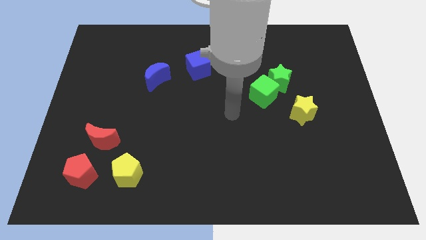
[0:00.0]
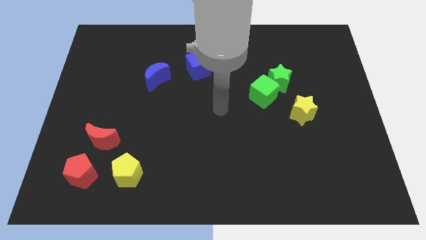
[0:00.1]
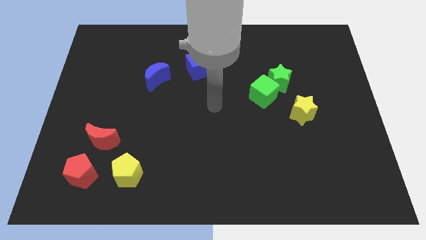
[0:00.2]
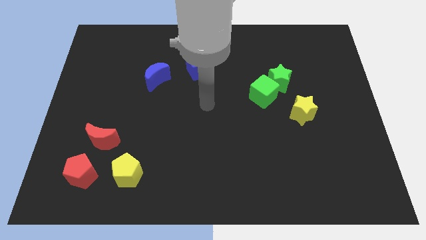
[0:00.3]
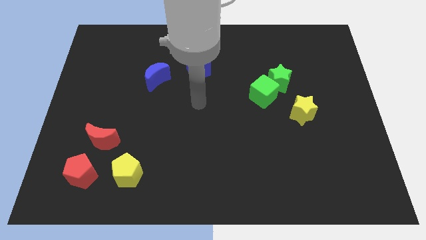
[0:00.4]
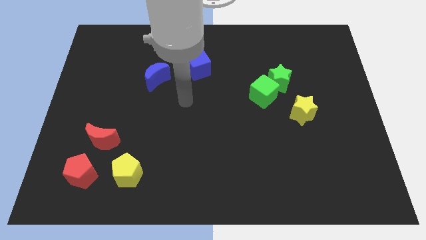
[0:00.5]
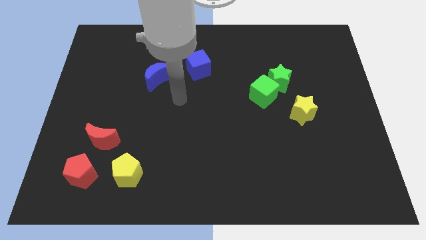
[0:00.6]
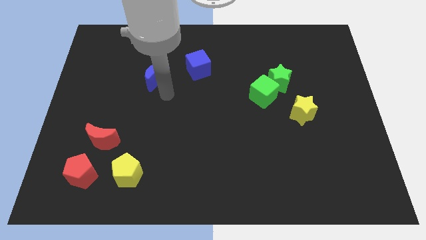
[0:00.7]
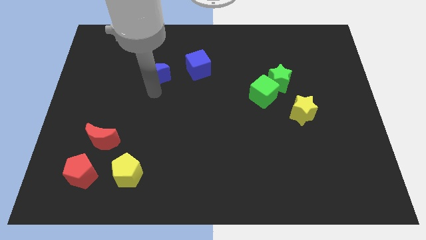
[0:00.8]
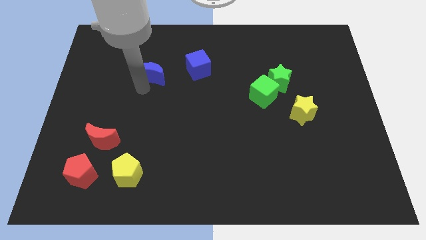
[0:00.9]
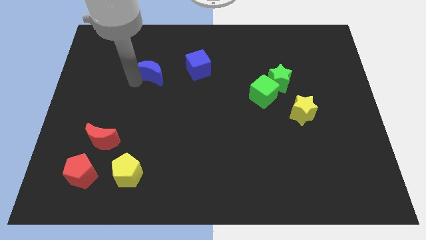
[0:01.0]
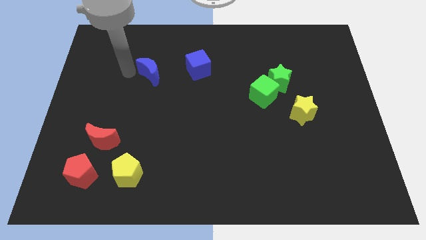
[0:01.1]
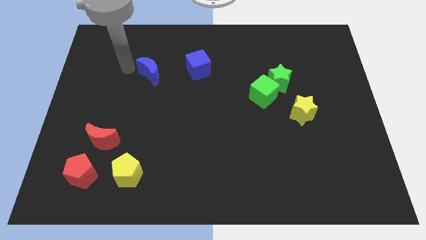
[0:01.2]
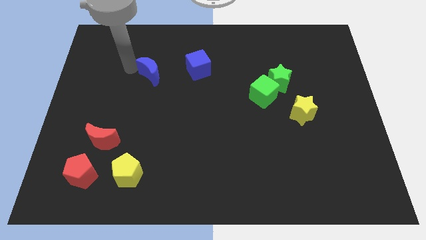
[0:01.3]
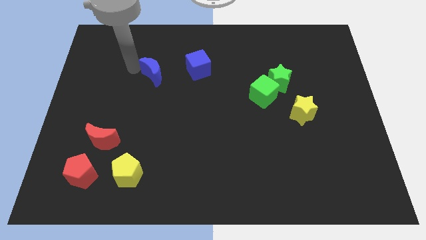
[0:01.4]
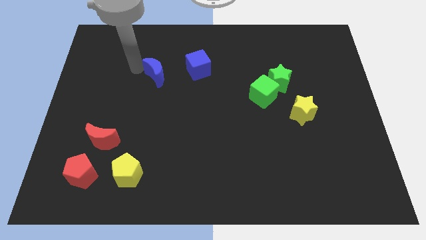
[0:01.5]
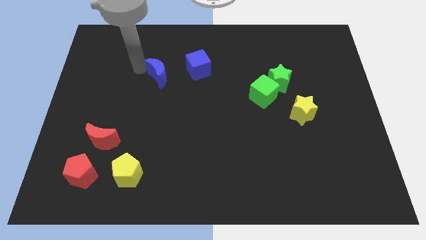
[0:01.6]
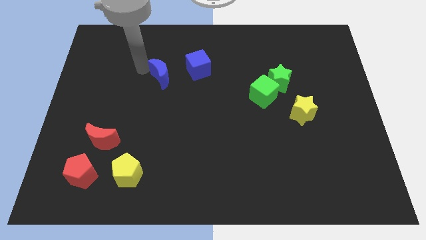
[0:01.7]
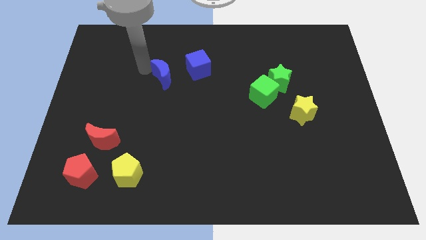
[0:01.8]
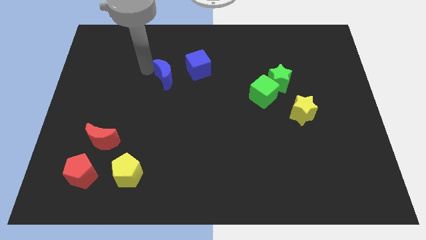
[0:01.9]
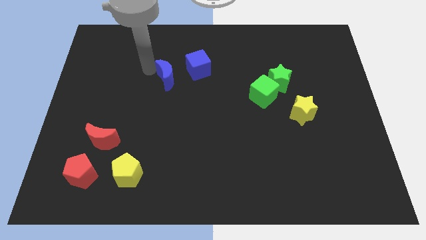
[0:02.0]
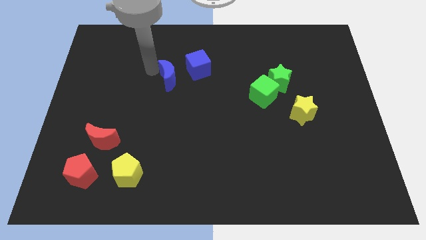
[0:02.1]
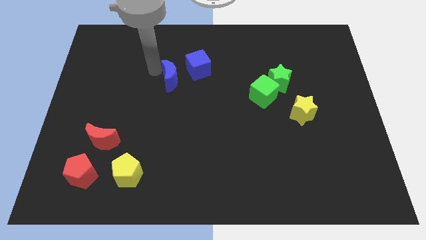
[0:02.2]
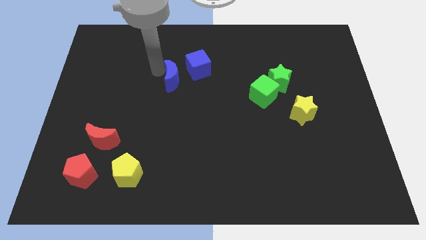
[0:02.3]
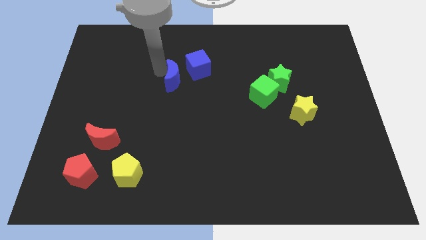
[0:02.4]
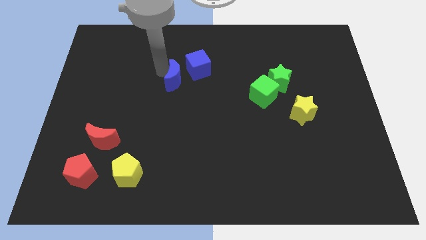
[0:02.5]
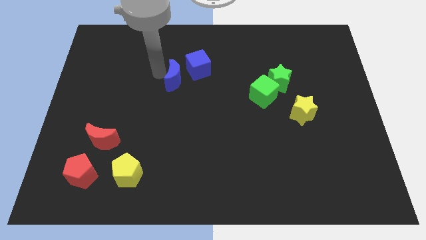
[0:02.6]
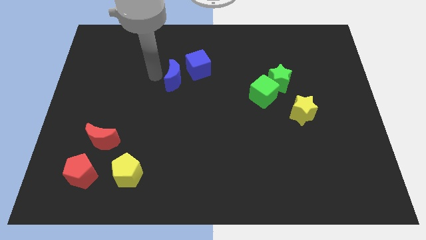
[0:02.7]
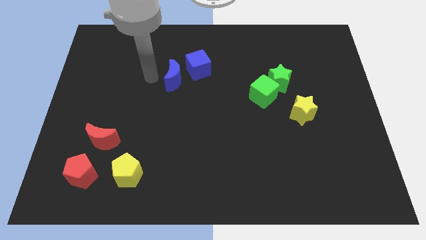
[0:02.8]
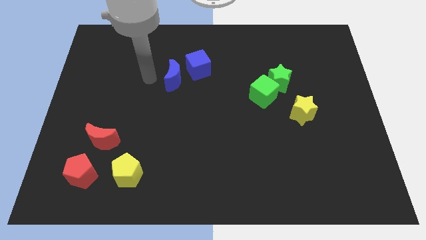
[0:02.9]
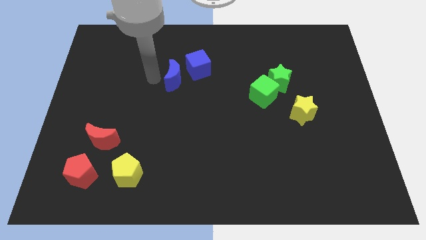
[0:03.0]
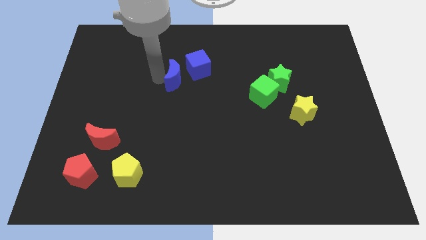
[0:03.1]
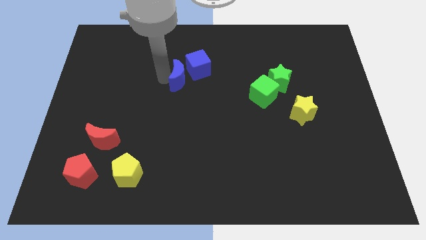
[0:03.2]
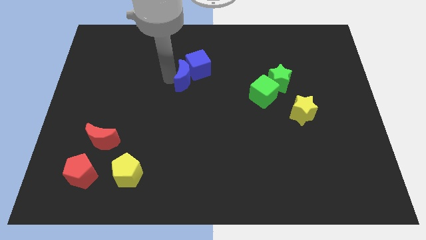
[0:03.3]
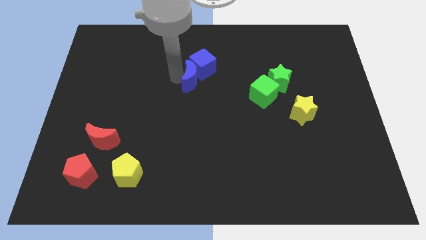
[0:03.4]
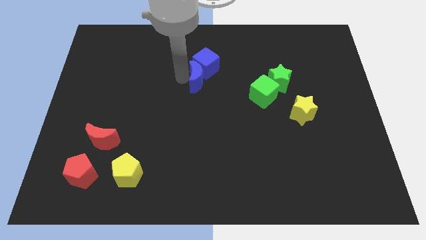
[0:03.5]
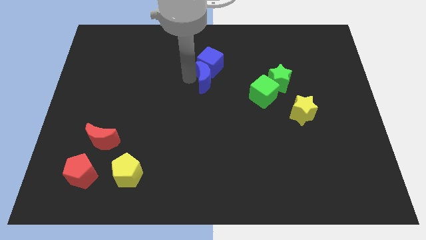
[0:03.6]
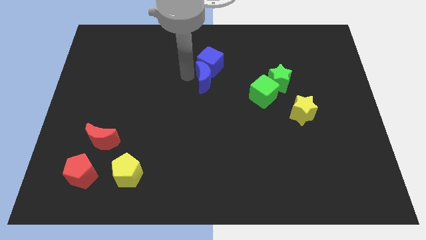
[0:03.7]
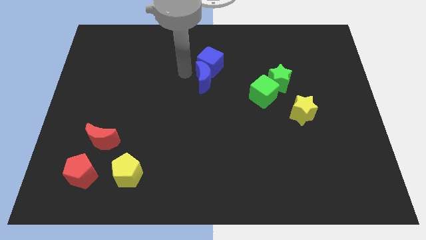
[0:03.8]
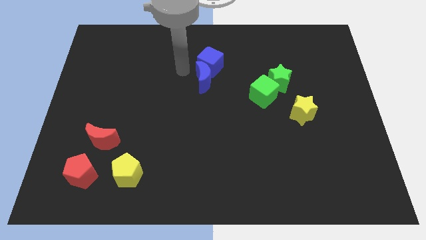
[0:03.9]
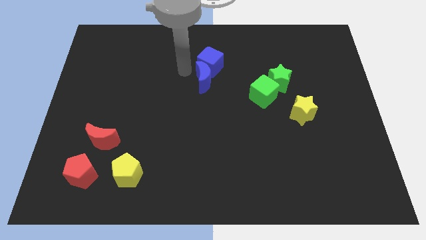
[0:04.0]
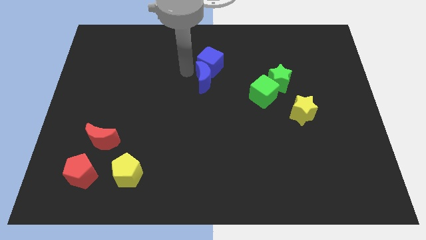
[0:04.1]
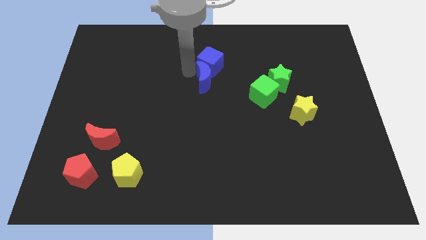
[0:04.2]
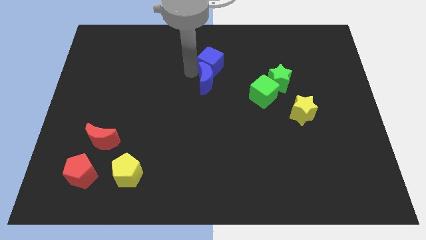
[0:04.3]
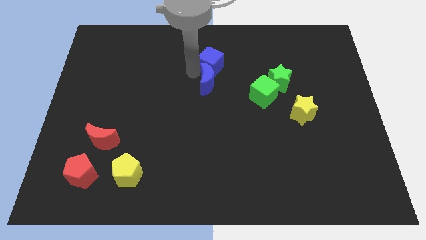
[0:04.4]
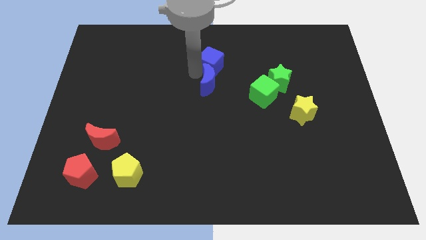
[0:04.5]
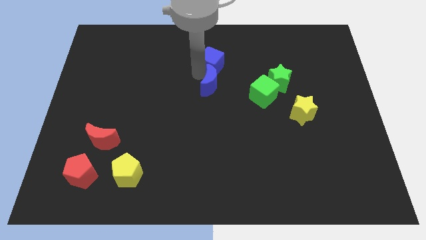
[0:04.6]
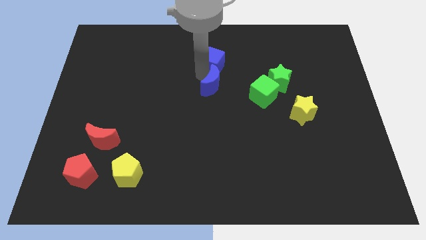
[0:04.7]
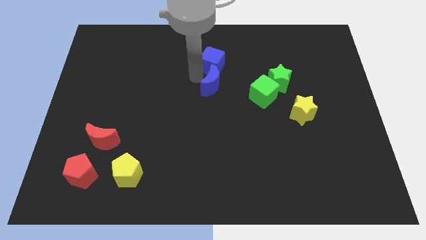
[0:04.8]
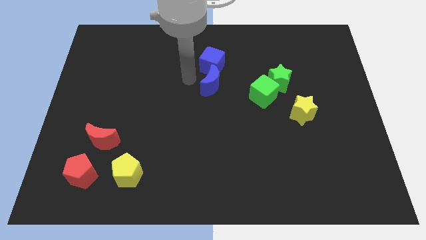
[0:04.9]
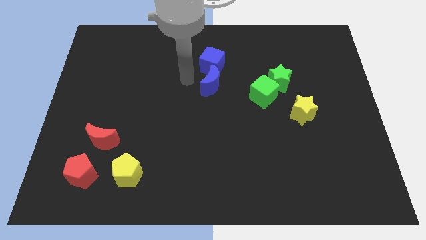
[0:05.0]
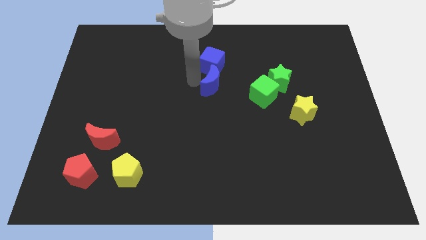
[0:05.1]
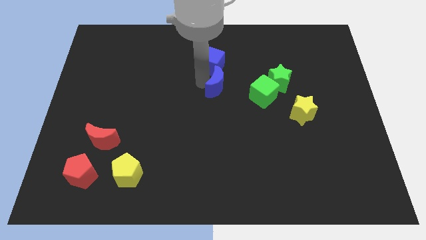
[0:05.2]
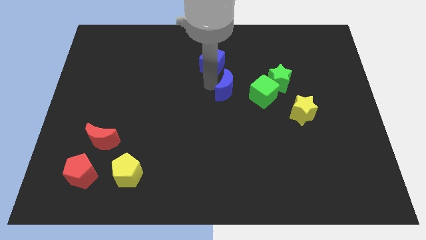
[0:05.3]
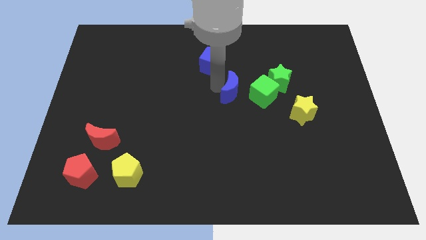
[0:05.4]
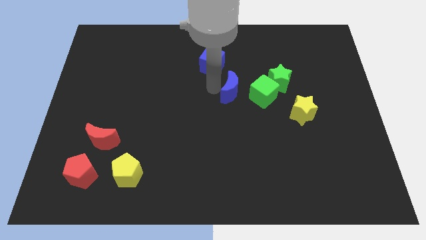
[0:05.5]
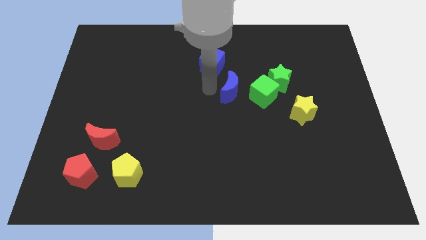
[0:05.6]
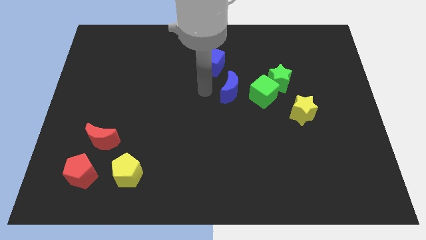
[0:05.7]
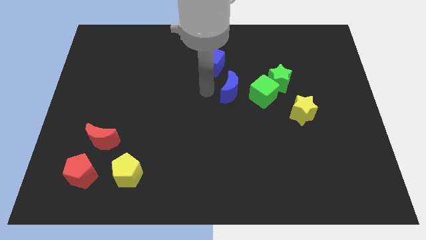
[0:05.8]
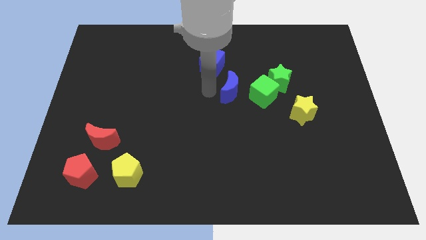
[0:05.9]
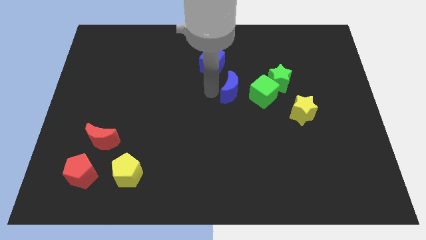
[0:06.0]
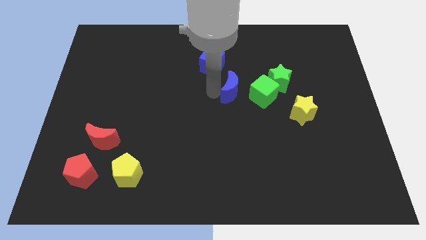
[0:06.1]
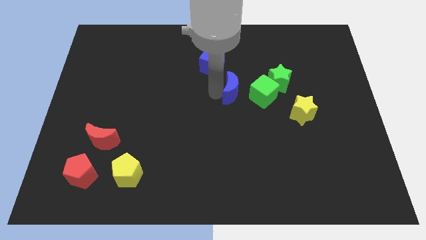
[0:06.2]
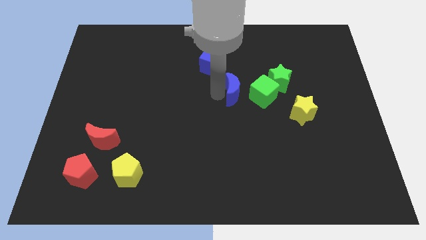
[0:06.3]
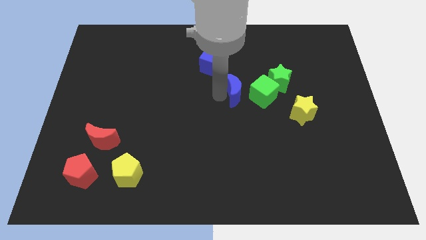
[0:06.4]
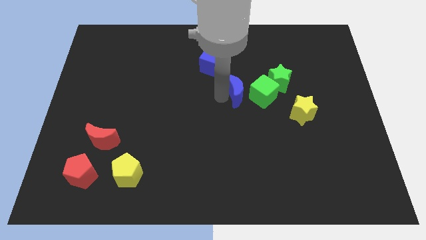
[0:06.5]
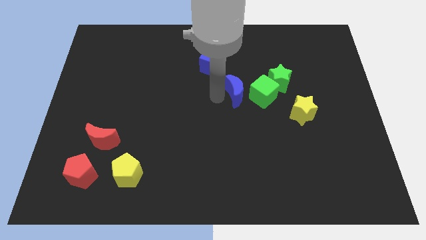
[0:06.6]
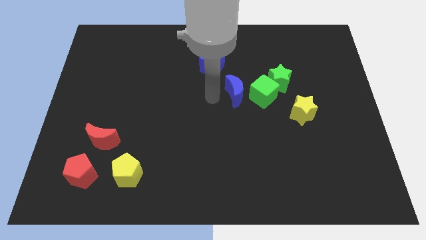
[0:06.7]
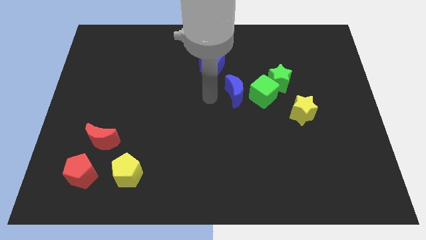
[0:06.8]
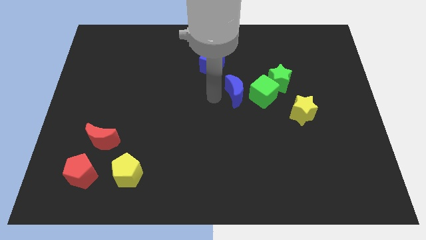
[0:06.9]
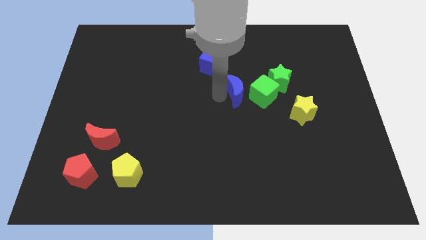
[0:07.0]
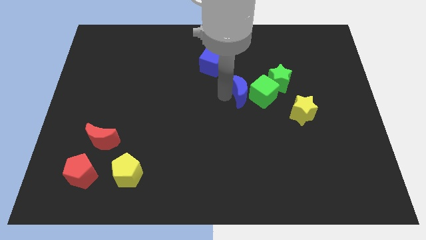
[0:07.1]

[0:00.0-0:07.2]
put the blue moon towards the green cube
